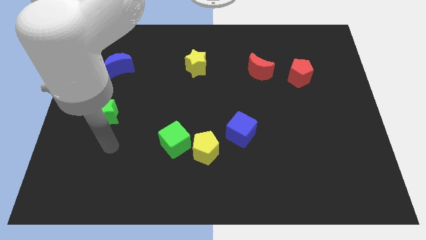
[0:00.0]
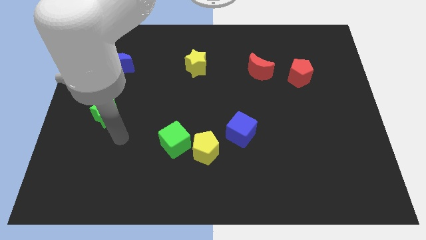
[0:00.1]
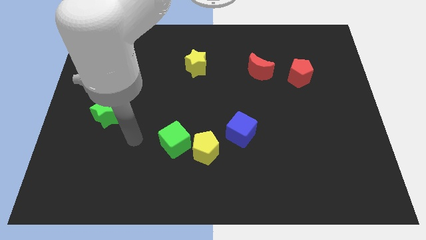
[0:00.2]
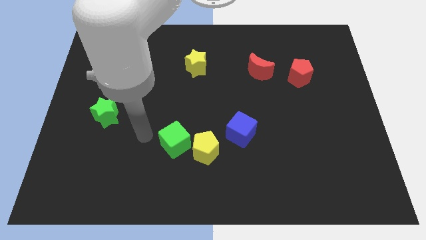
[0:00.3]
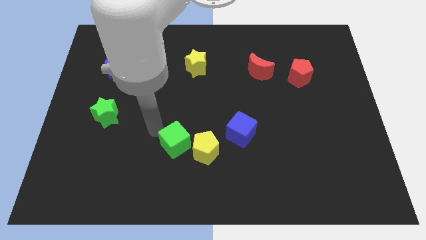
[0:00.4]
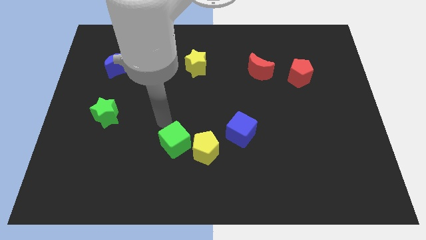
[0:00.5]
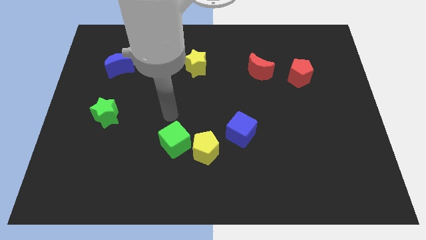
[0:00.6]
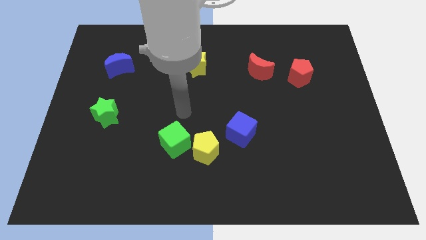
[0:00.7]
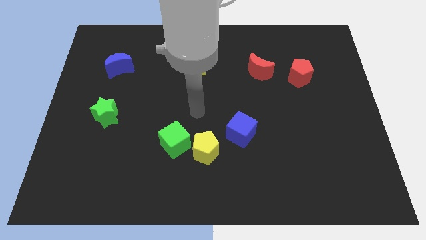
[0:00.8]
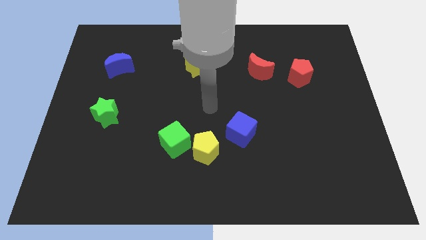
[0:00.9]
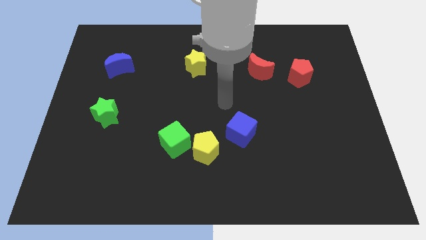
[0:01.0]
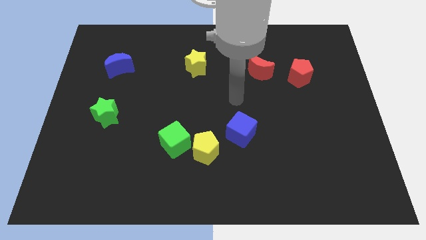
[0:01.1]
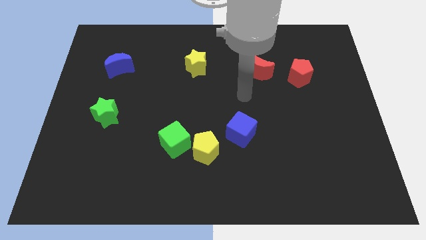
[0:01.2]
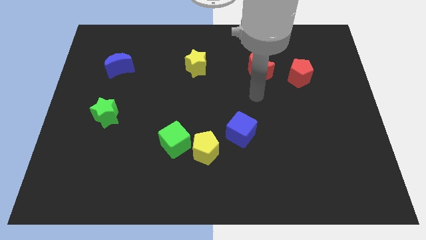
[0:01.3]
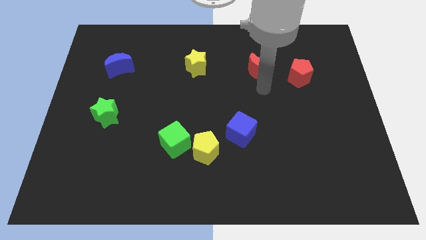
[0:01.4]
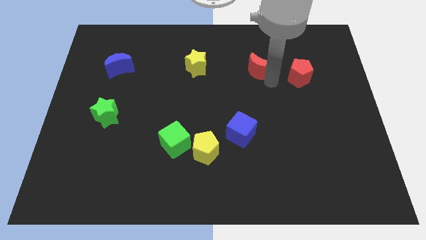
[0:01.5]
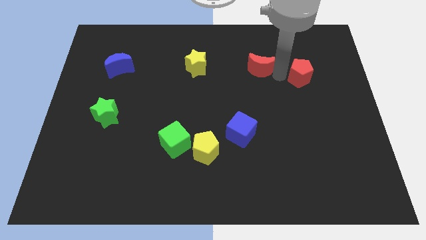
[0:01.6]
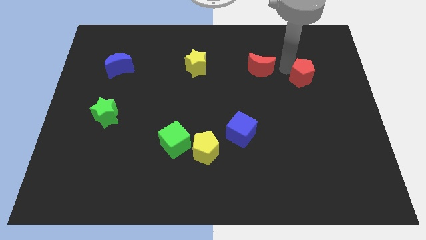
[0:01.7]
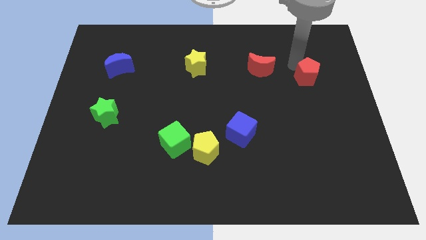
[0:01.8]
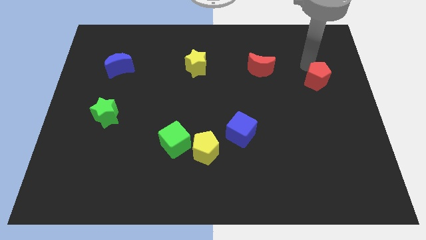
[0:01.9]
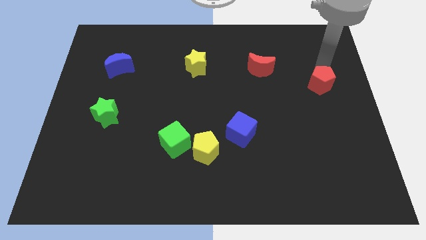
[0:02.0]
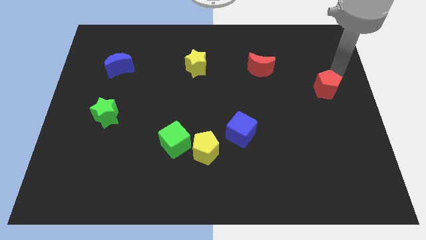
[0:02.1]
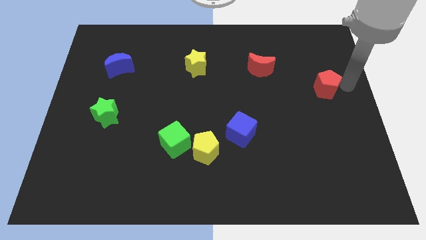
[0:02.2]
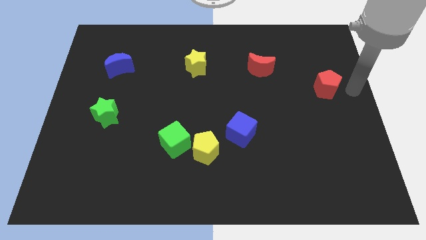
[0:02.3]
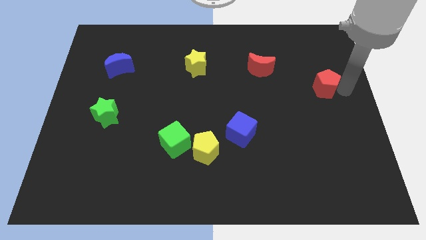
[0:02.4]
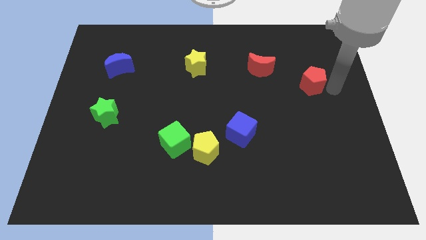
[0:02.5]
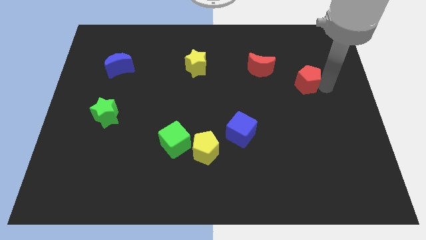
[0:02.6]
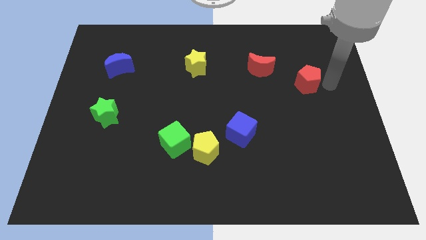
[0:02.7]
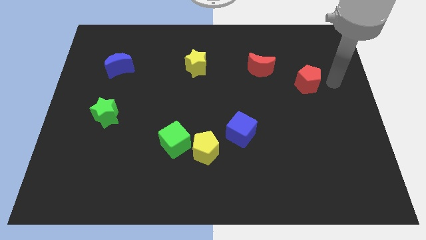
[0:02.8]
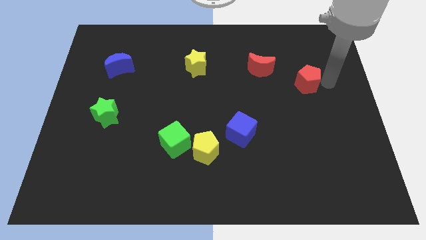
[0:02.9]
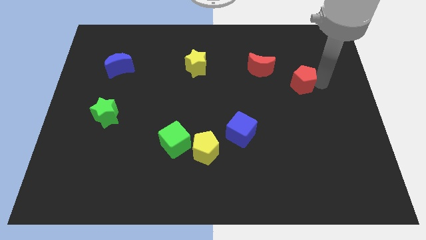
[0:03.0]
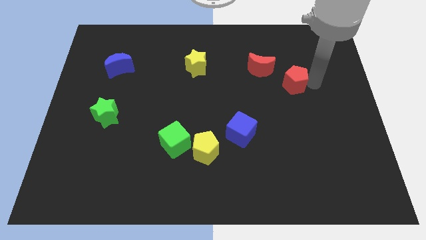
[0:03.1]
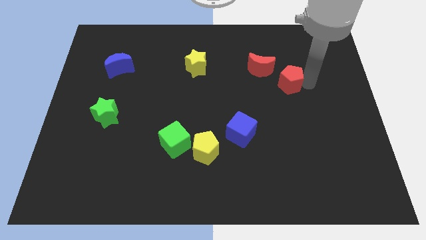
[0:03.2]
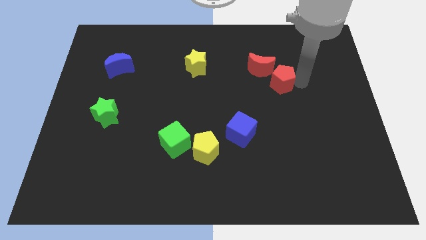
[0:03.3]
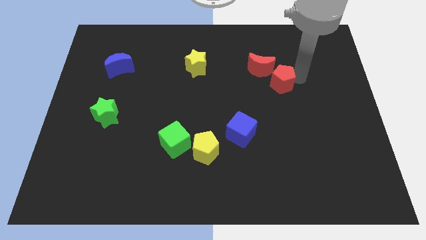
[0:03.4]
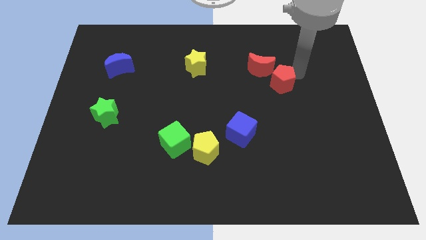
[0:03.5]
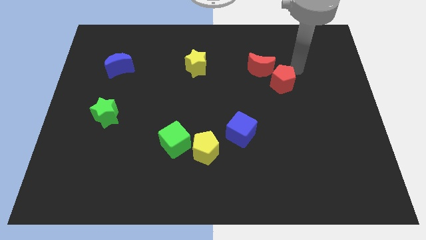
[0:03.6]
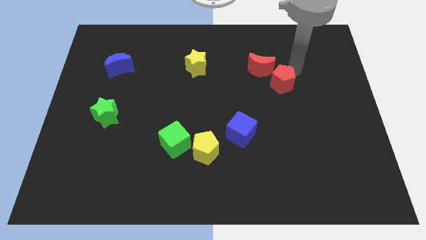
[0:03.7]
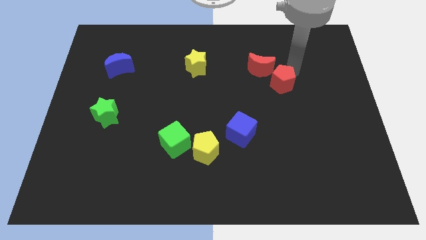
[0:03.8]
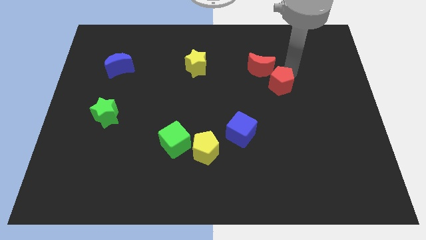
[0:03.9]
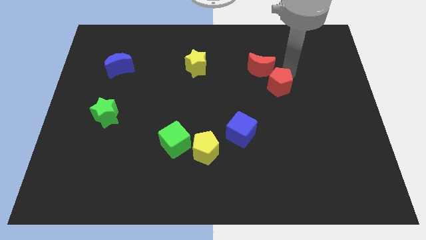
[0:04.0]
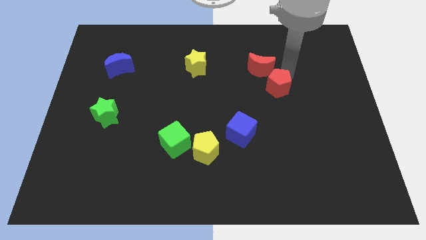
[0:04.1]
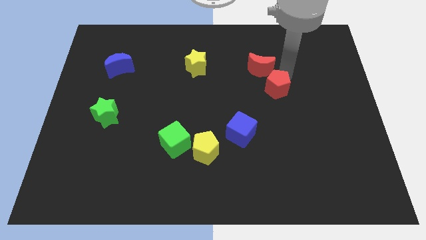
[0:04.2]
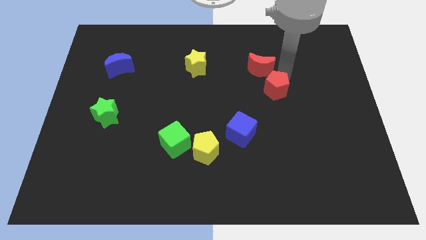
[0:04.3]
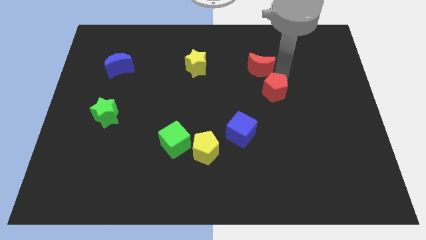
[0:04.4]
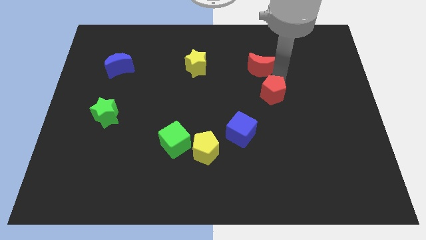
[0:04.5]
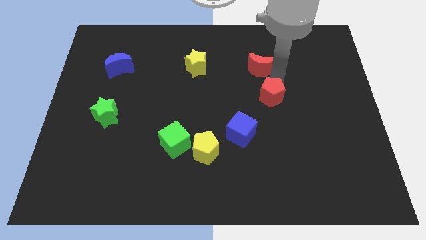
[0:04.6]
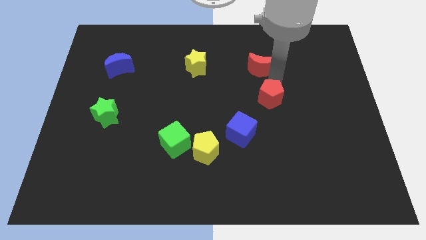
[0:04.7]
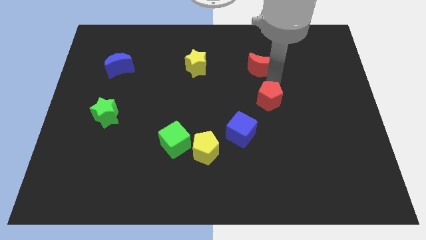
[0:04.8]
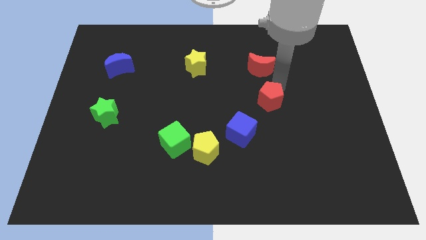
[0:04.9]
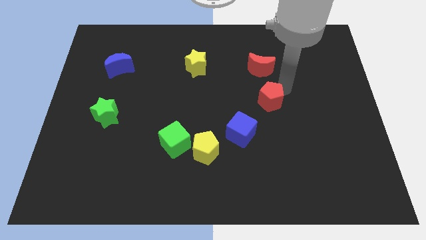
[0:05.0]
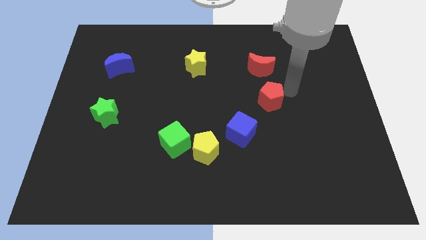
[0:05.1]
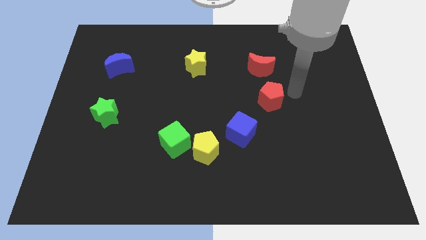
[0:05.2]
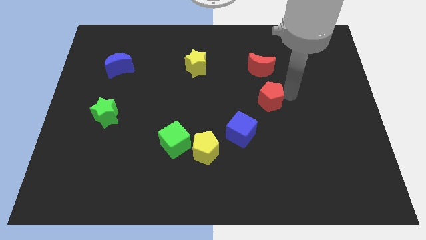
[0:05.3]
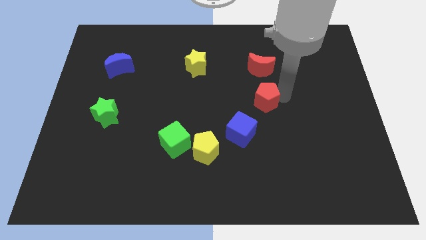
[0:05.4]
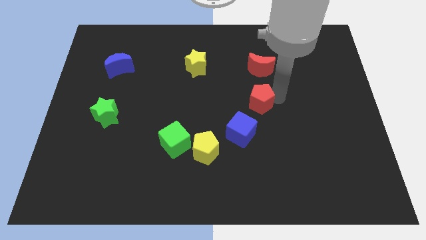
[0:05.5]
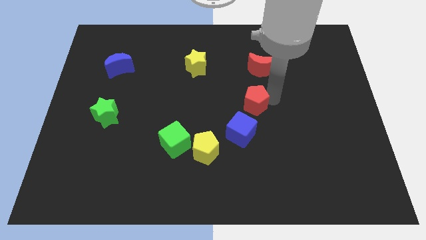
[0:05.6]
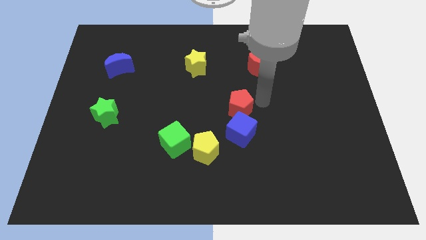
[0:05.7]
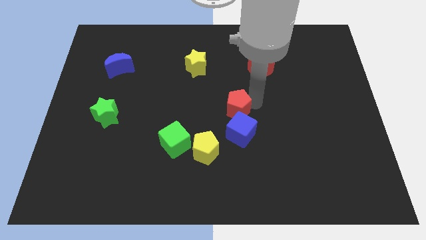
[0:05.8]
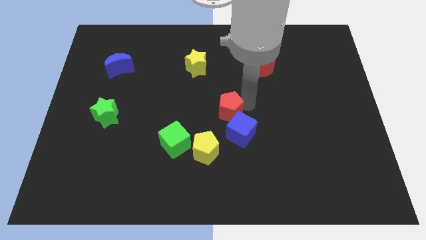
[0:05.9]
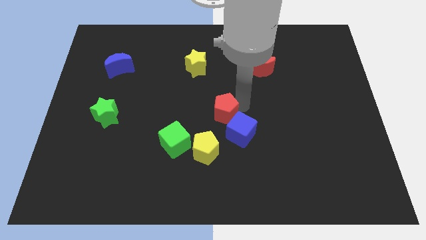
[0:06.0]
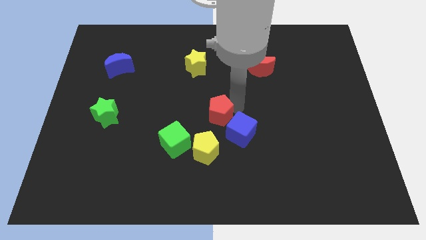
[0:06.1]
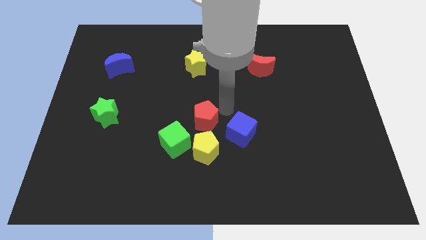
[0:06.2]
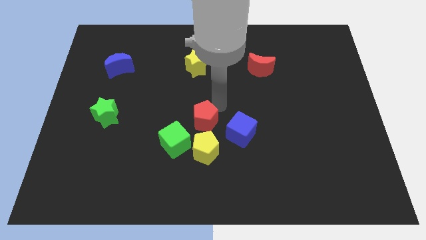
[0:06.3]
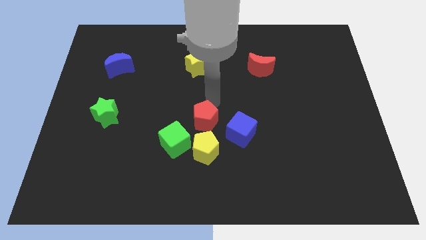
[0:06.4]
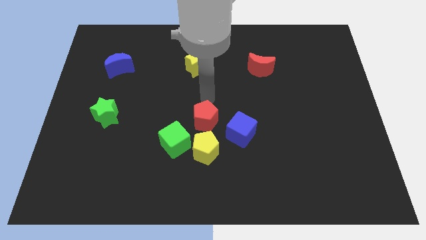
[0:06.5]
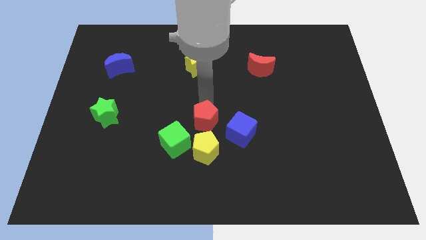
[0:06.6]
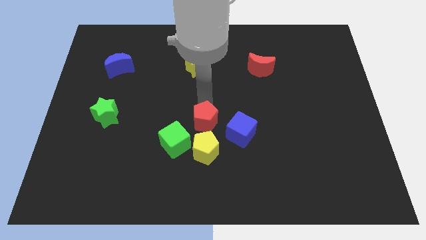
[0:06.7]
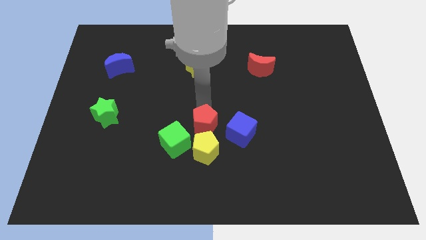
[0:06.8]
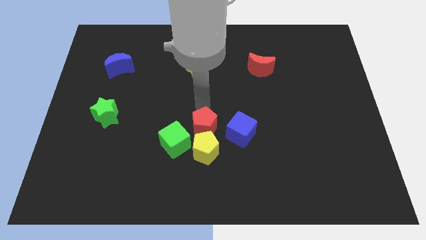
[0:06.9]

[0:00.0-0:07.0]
put the red pentagon towards the yellow pentagon

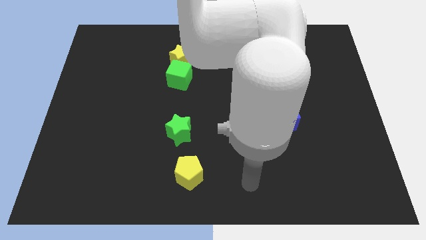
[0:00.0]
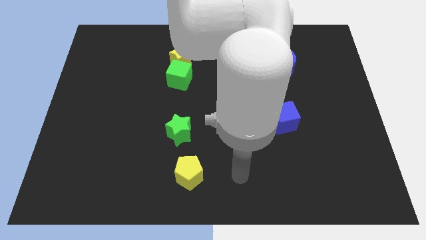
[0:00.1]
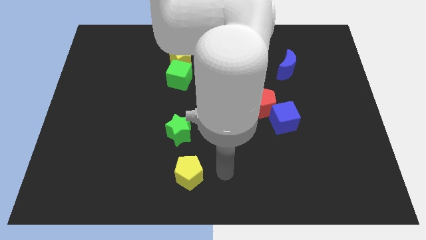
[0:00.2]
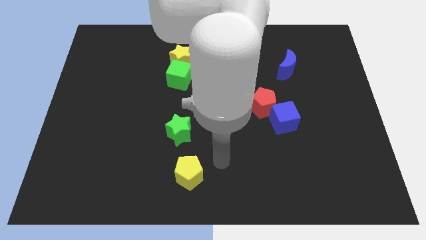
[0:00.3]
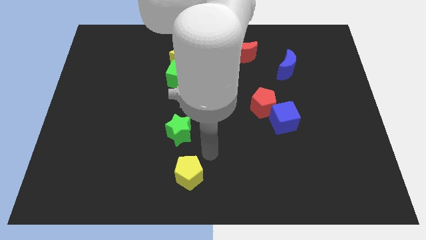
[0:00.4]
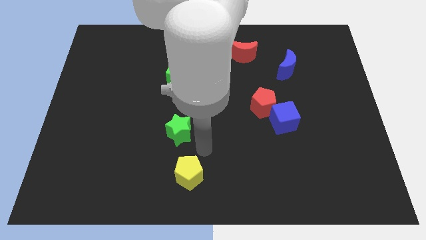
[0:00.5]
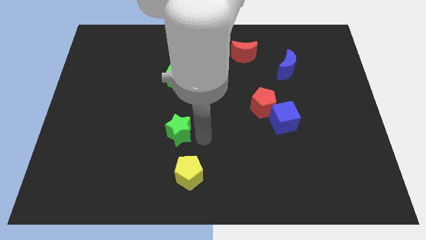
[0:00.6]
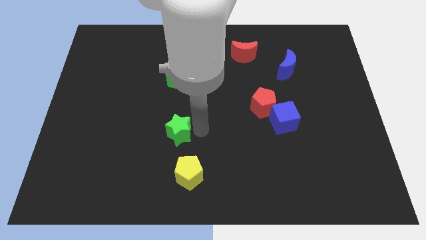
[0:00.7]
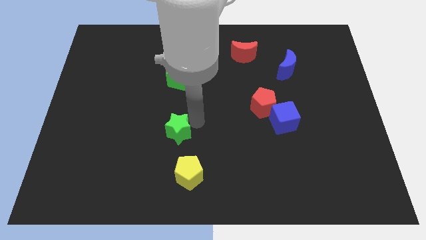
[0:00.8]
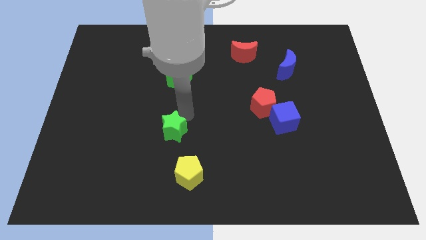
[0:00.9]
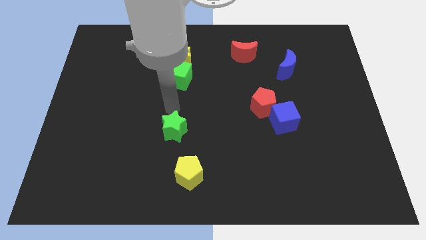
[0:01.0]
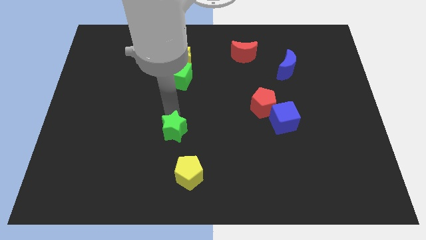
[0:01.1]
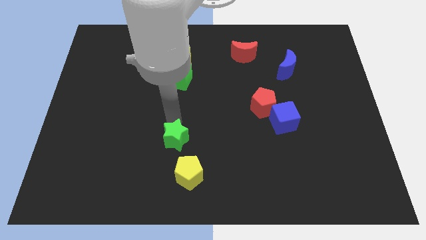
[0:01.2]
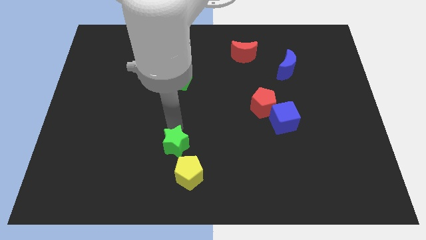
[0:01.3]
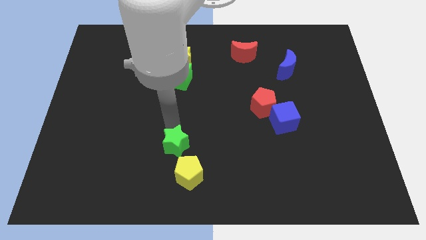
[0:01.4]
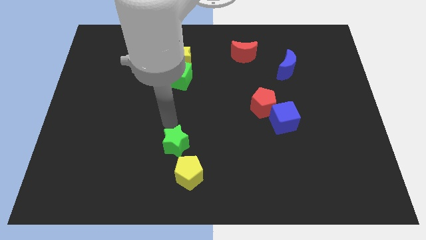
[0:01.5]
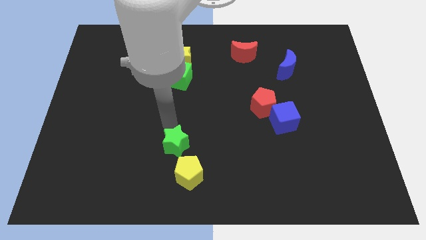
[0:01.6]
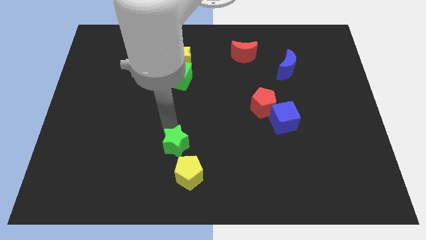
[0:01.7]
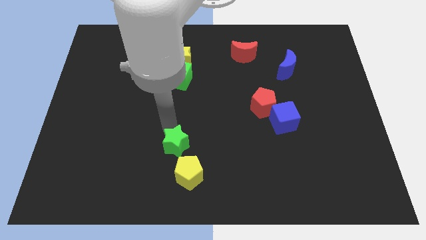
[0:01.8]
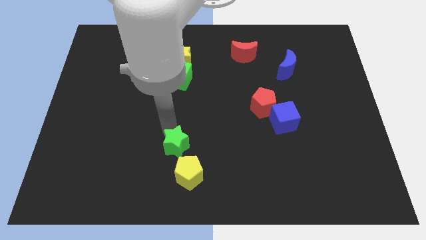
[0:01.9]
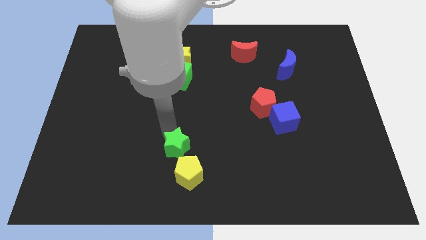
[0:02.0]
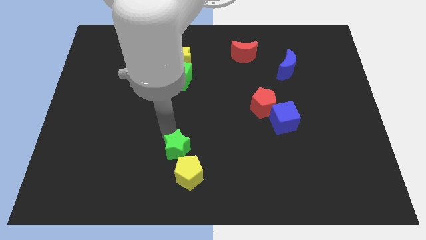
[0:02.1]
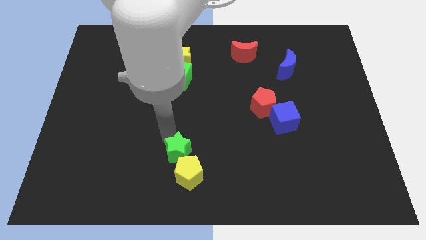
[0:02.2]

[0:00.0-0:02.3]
put the green star towards the yellow pentagon
